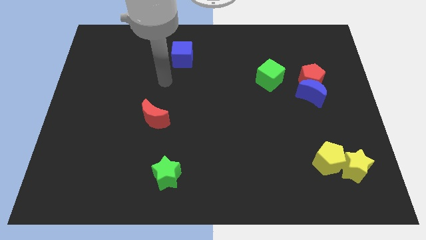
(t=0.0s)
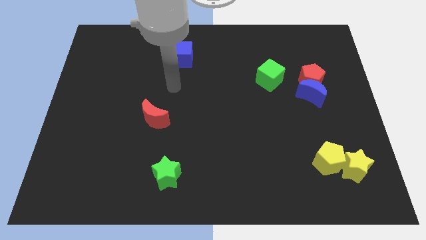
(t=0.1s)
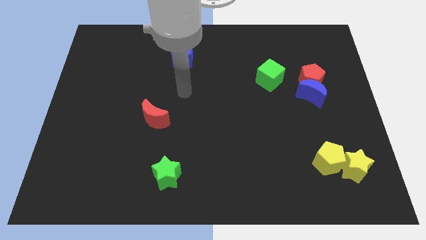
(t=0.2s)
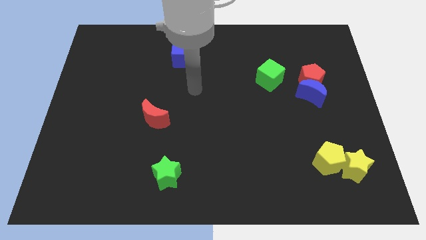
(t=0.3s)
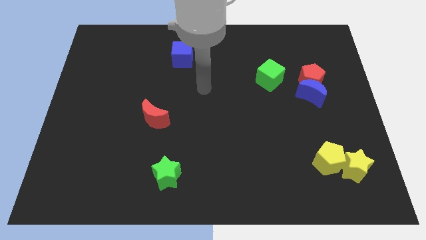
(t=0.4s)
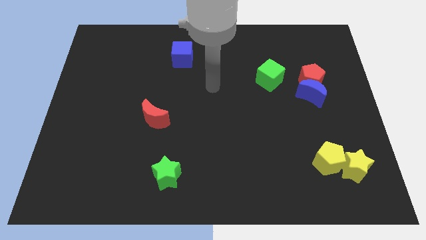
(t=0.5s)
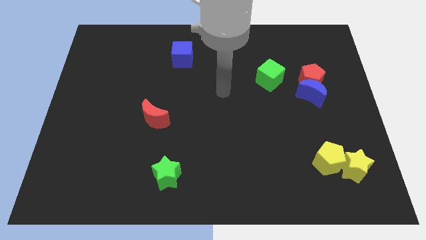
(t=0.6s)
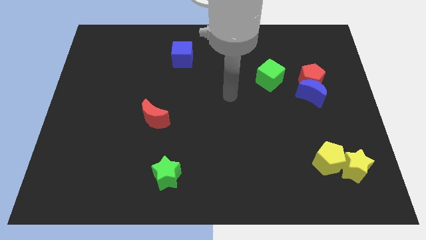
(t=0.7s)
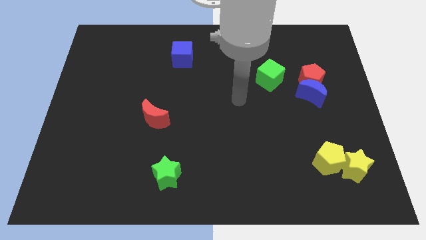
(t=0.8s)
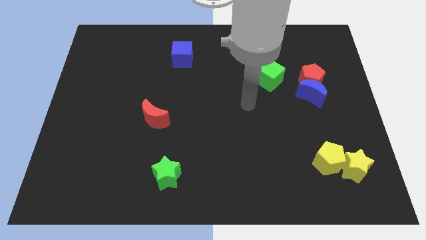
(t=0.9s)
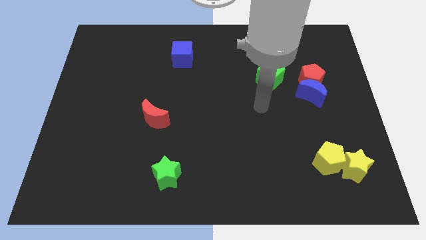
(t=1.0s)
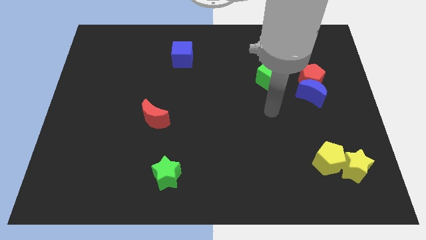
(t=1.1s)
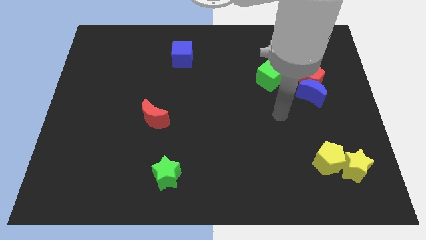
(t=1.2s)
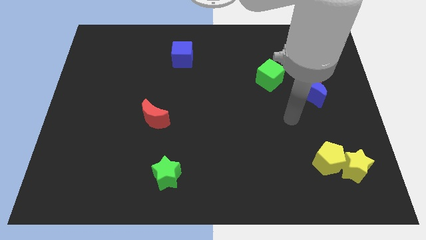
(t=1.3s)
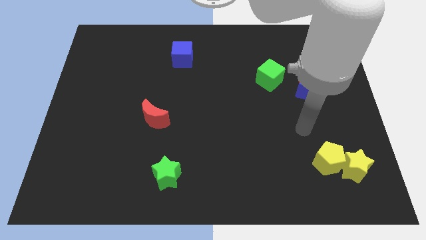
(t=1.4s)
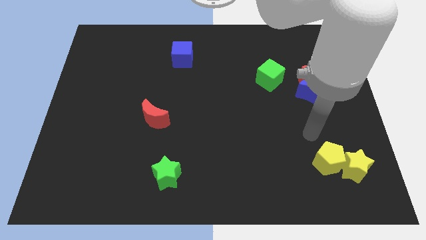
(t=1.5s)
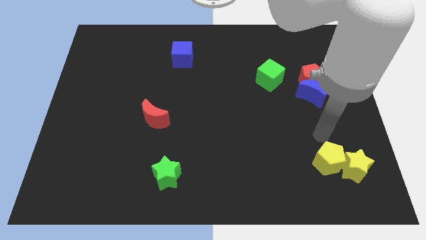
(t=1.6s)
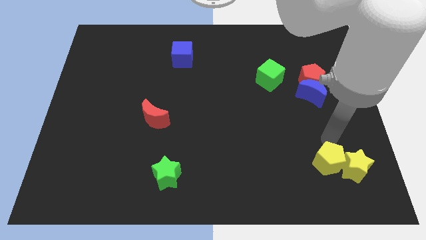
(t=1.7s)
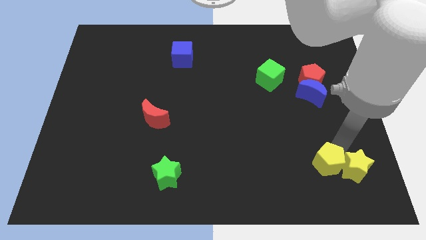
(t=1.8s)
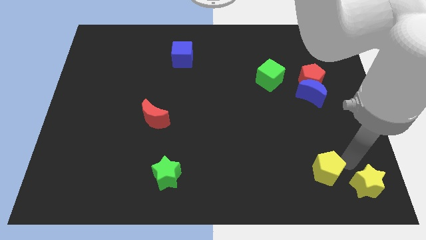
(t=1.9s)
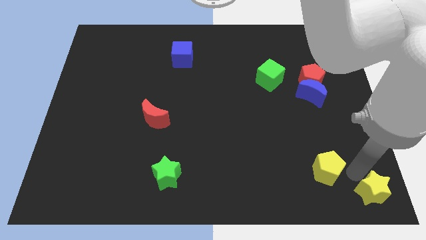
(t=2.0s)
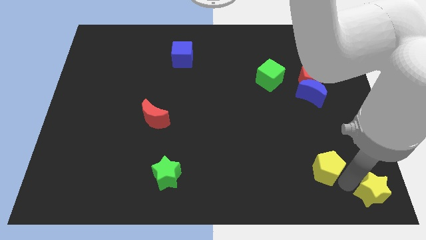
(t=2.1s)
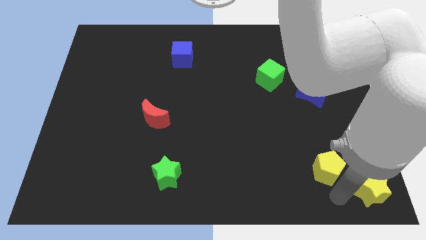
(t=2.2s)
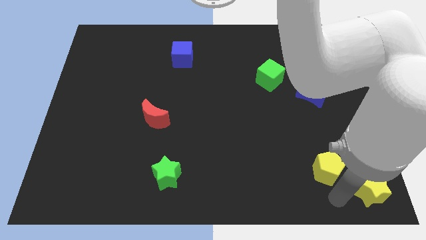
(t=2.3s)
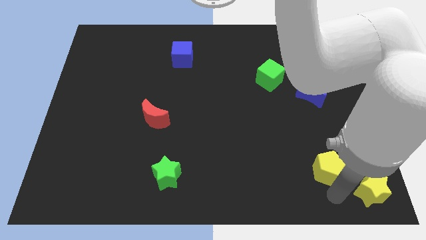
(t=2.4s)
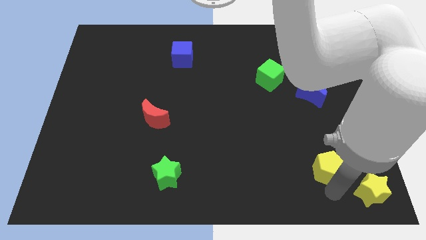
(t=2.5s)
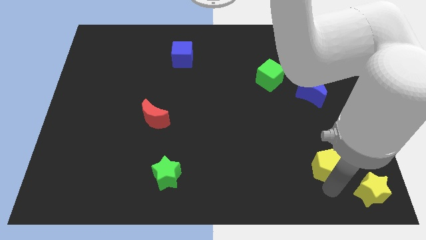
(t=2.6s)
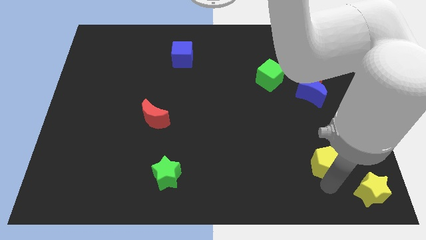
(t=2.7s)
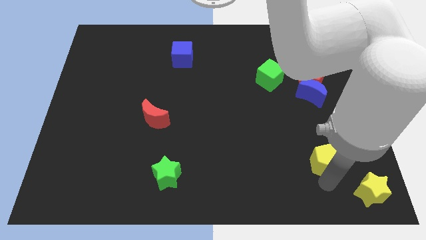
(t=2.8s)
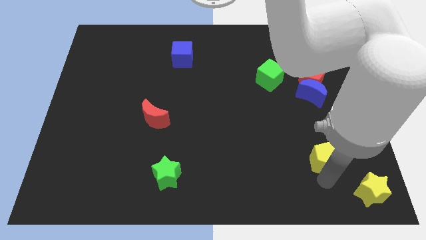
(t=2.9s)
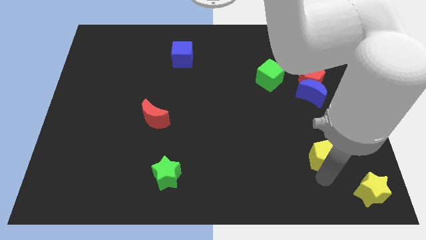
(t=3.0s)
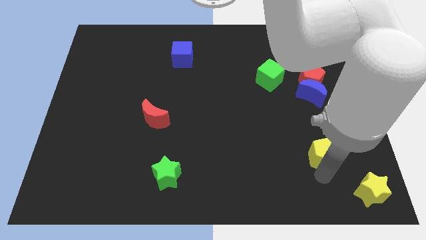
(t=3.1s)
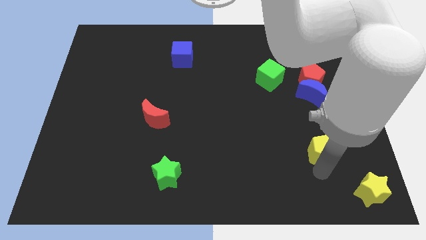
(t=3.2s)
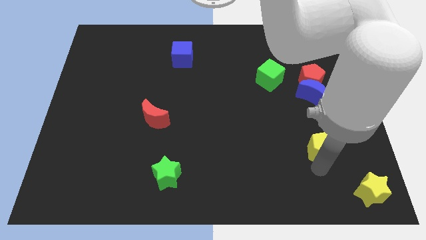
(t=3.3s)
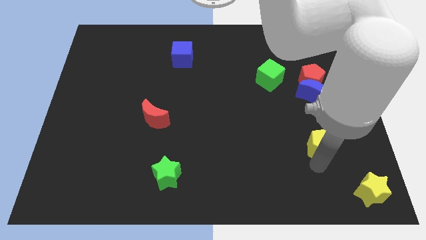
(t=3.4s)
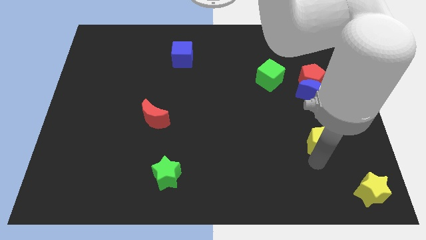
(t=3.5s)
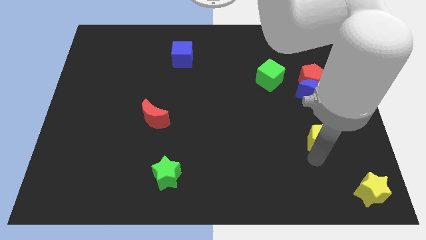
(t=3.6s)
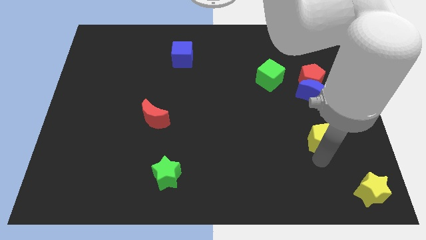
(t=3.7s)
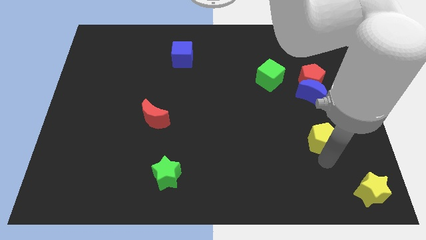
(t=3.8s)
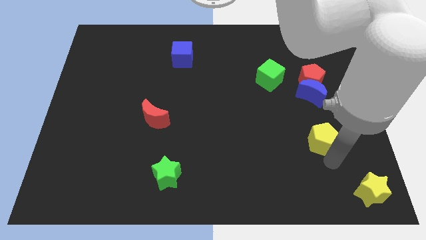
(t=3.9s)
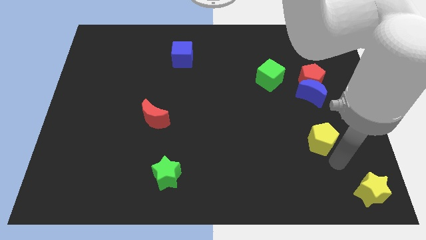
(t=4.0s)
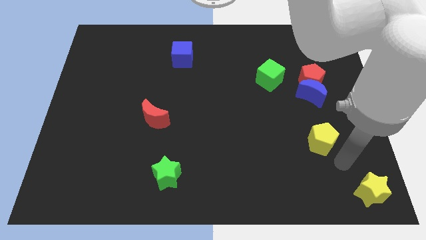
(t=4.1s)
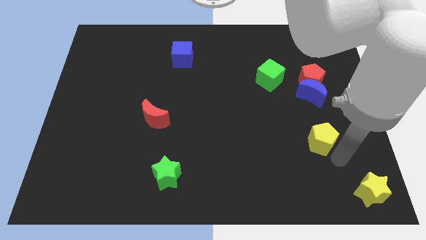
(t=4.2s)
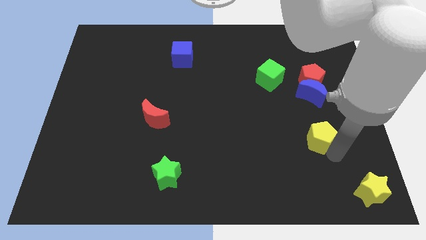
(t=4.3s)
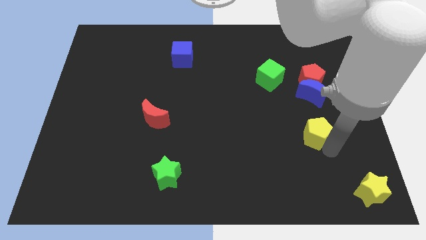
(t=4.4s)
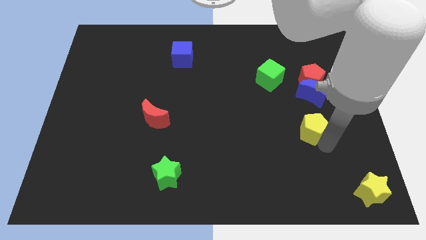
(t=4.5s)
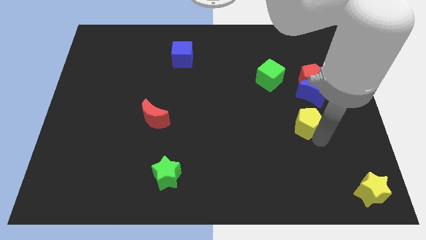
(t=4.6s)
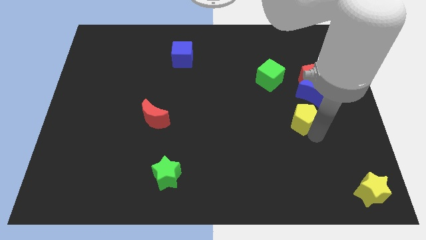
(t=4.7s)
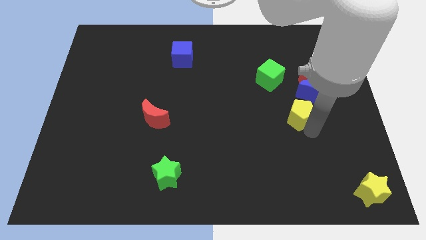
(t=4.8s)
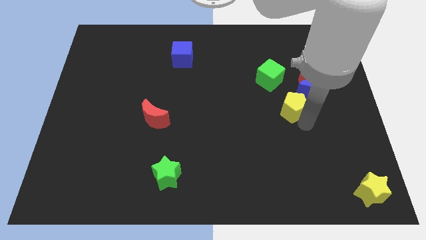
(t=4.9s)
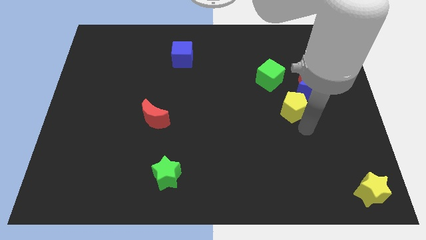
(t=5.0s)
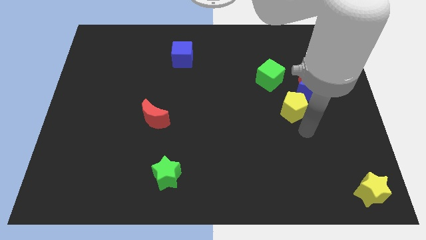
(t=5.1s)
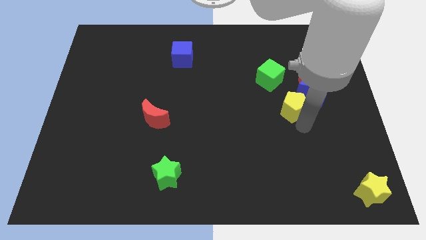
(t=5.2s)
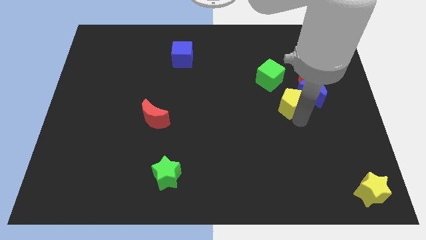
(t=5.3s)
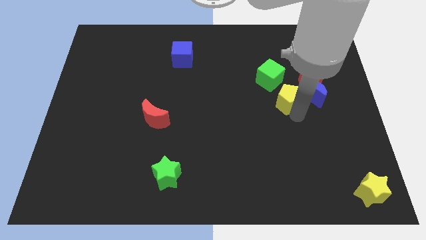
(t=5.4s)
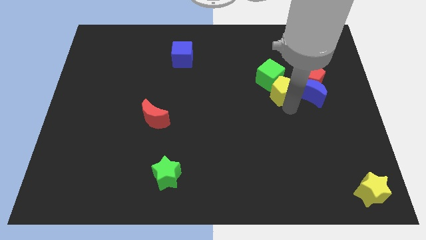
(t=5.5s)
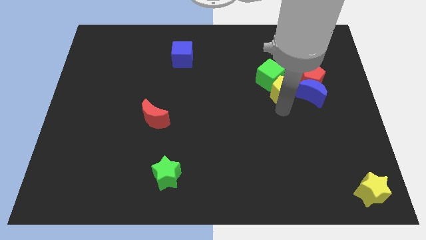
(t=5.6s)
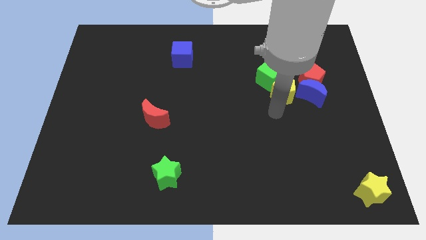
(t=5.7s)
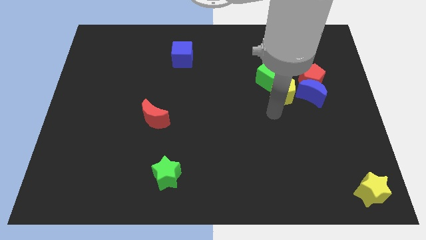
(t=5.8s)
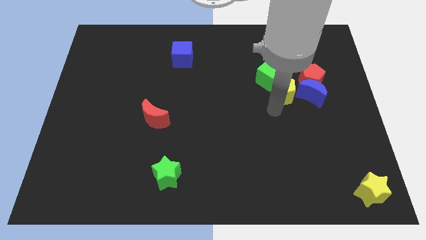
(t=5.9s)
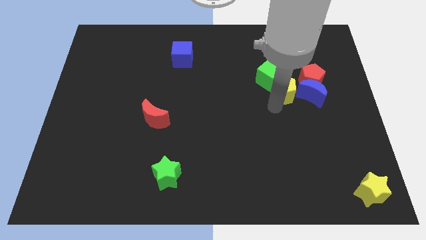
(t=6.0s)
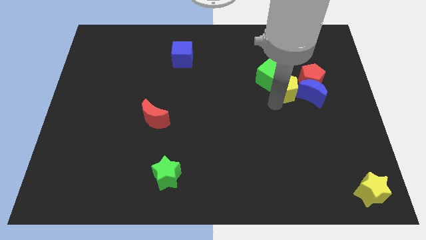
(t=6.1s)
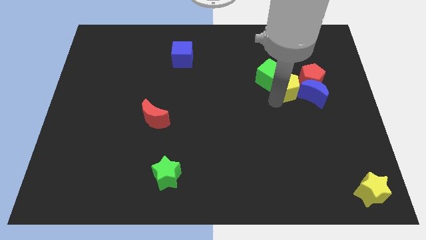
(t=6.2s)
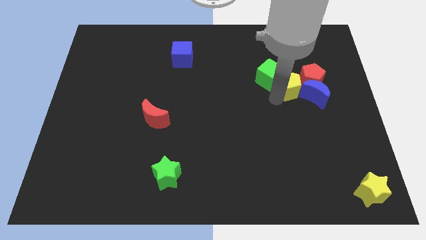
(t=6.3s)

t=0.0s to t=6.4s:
move the yellow pentagon close to the red pentagon
